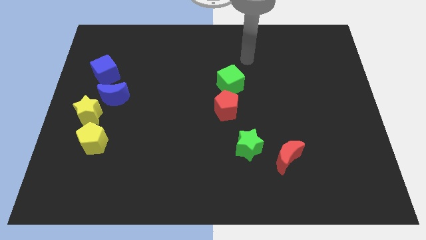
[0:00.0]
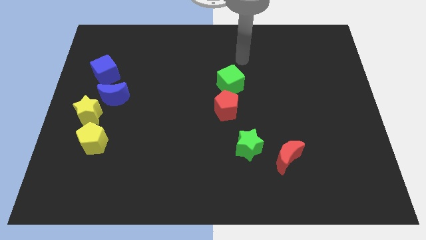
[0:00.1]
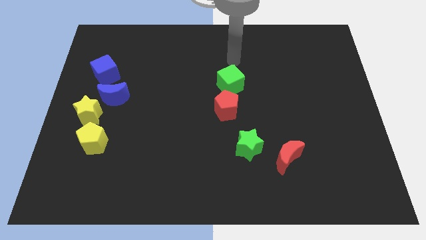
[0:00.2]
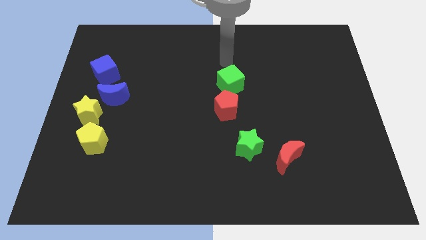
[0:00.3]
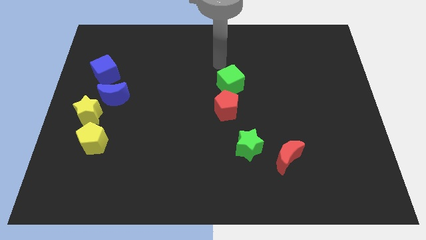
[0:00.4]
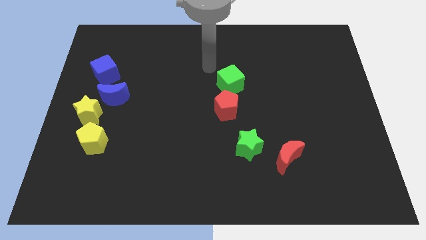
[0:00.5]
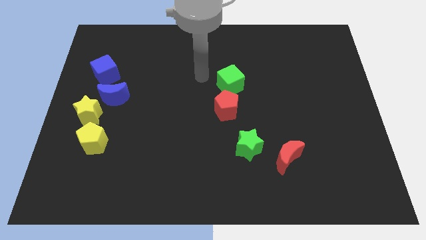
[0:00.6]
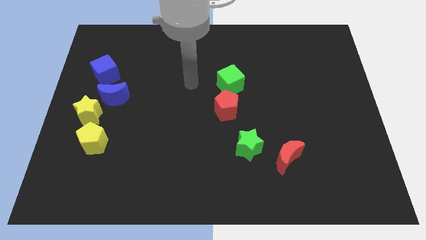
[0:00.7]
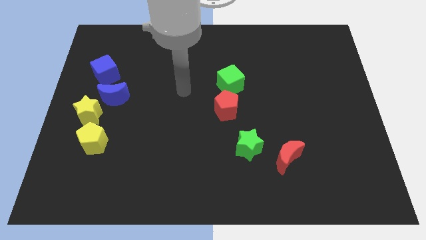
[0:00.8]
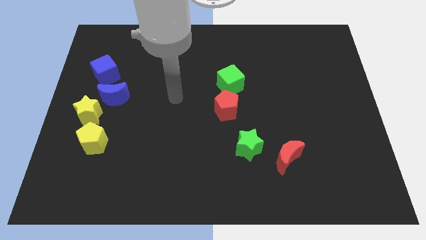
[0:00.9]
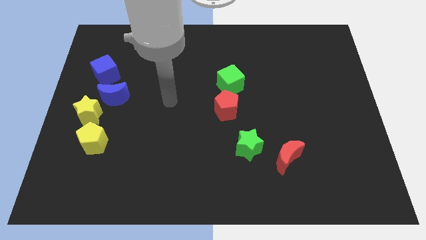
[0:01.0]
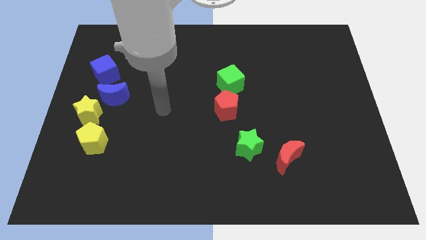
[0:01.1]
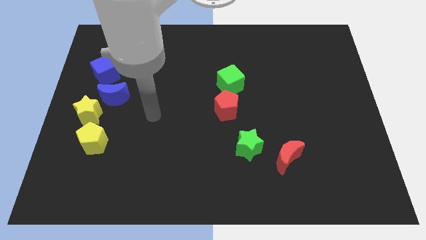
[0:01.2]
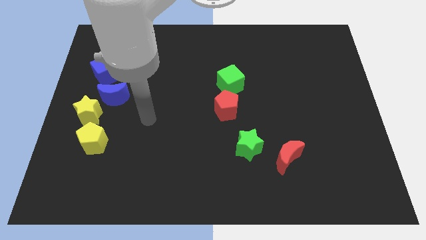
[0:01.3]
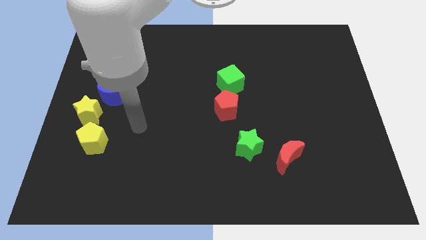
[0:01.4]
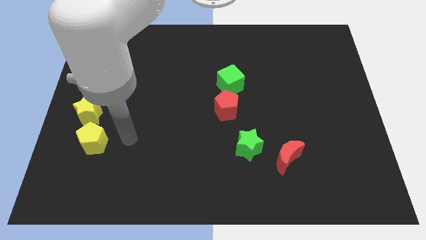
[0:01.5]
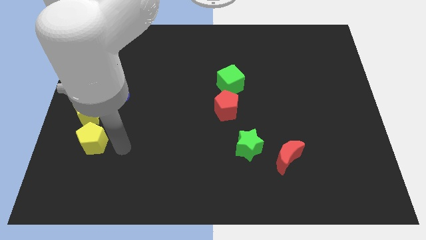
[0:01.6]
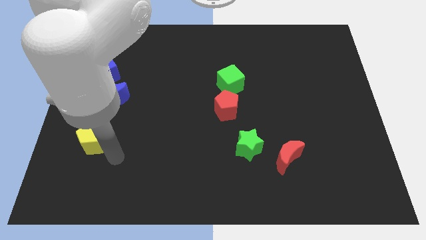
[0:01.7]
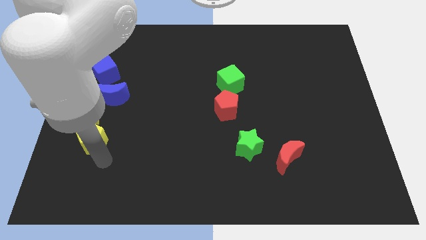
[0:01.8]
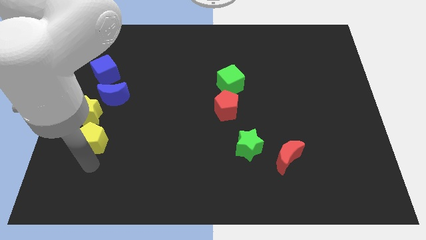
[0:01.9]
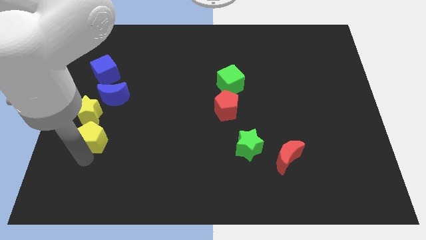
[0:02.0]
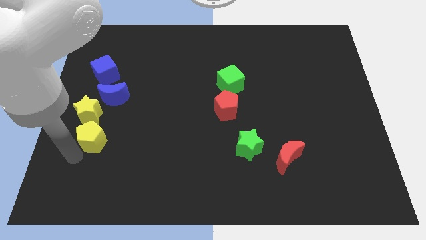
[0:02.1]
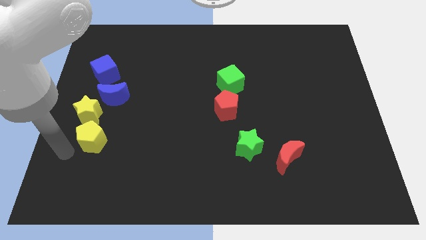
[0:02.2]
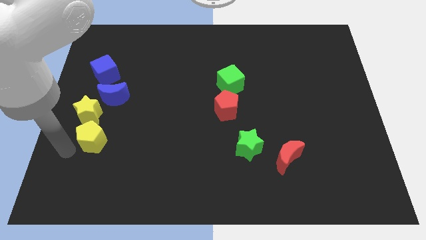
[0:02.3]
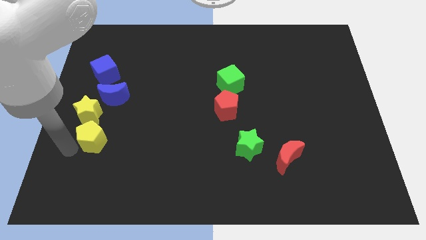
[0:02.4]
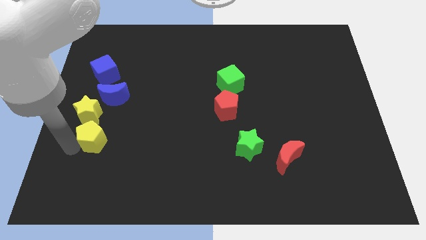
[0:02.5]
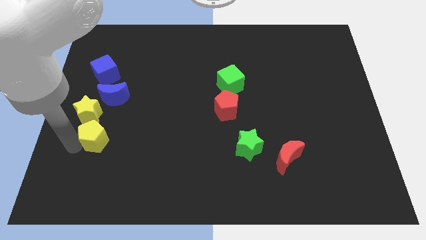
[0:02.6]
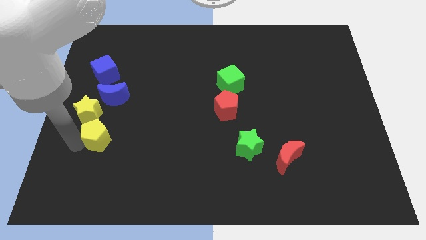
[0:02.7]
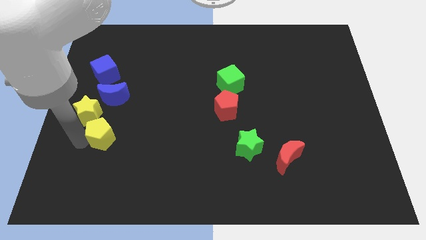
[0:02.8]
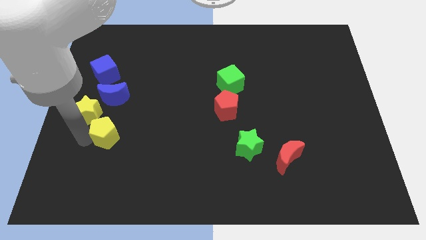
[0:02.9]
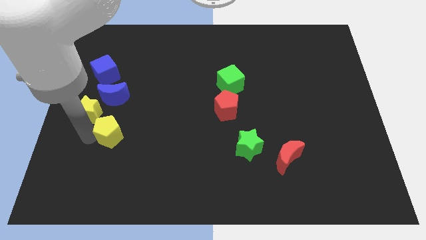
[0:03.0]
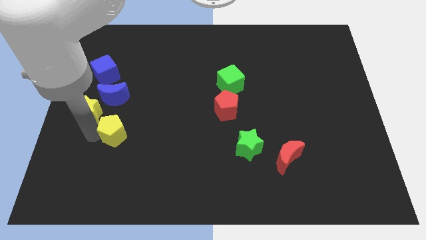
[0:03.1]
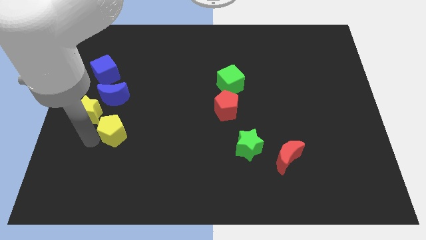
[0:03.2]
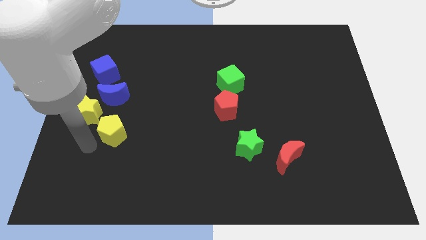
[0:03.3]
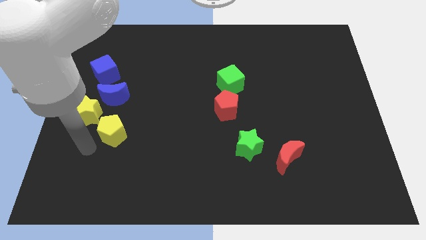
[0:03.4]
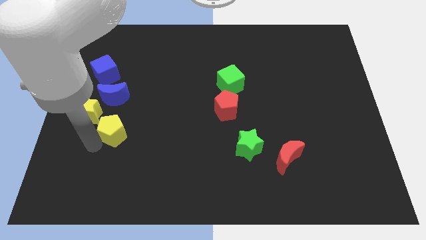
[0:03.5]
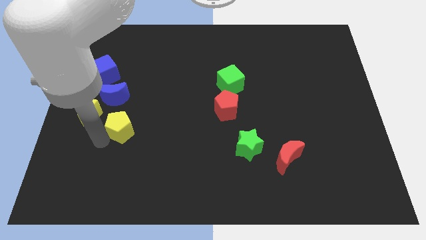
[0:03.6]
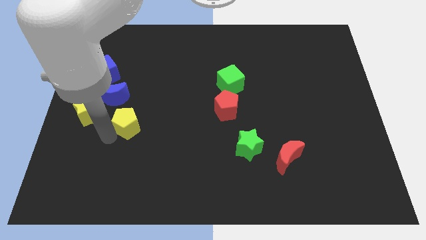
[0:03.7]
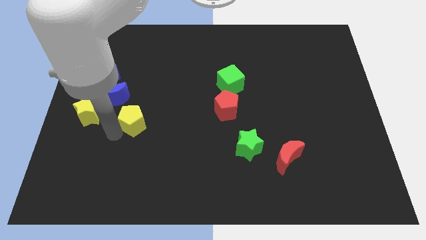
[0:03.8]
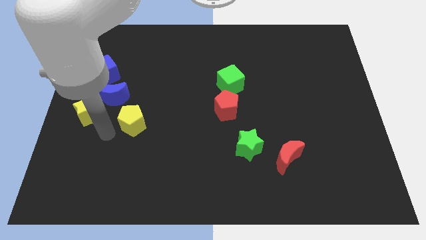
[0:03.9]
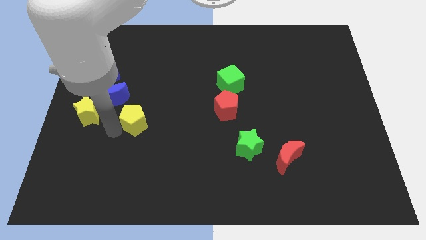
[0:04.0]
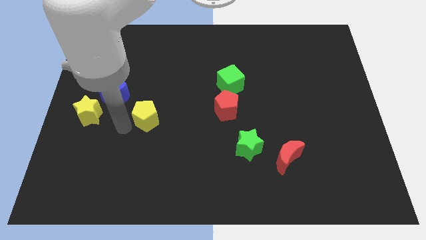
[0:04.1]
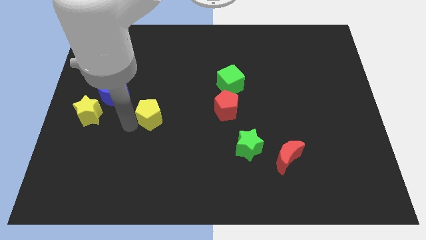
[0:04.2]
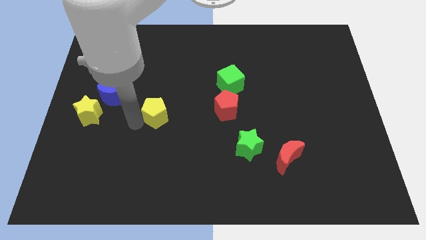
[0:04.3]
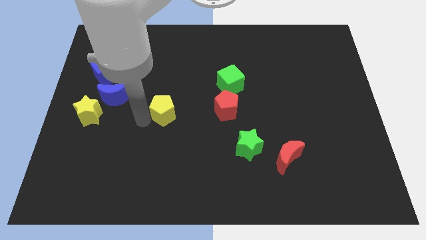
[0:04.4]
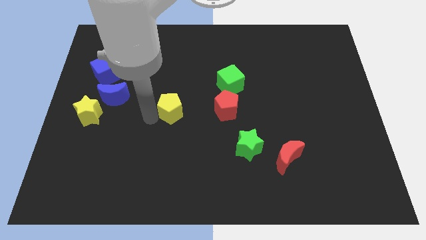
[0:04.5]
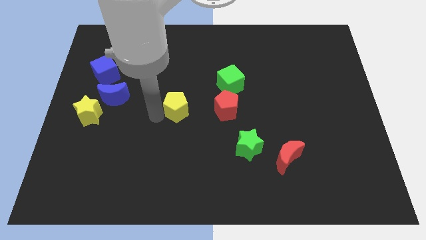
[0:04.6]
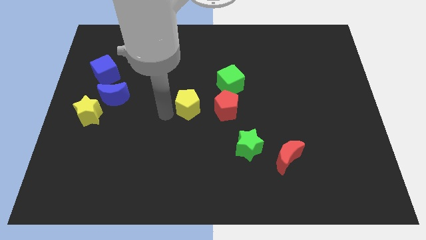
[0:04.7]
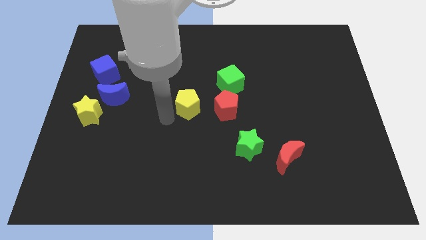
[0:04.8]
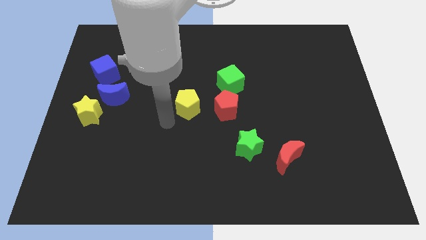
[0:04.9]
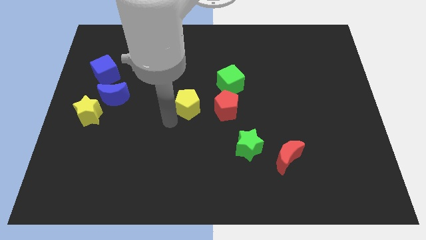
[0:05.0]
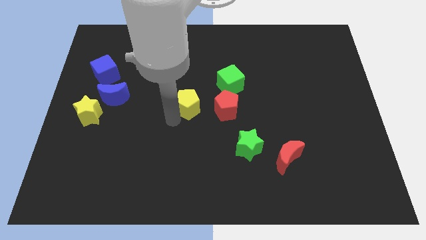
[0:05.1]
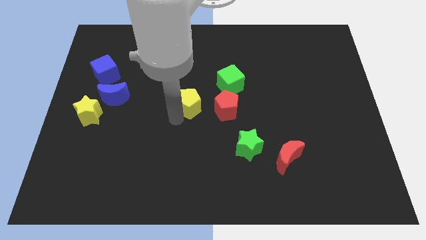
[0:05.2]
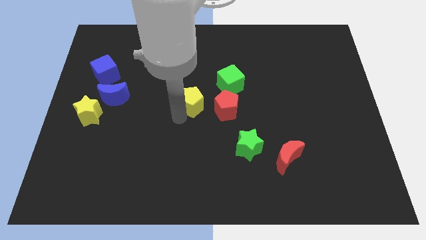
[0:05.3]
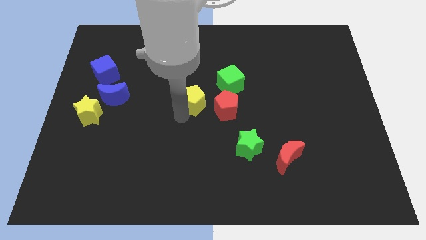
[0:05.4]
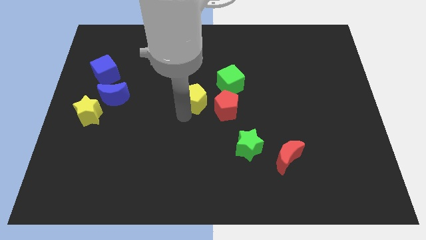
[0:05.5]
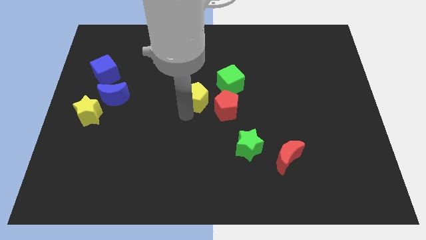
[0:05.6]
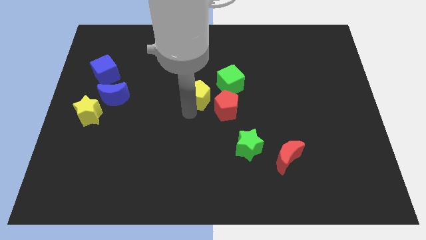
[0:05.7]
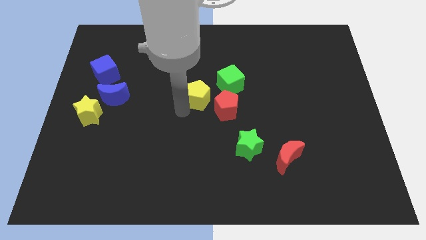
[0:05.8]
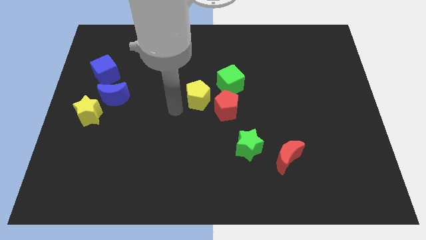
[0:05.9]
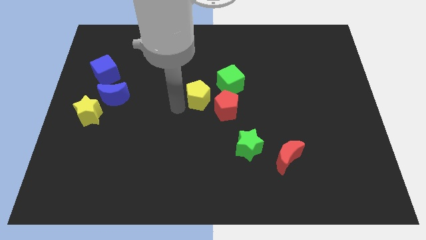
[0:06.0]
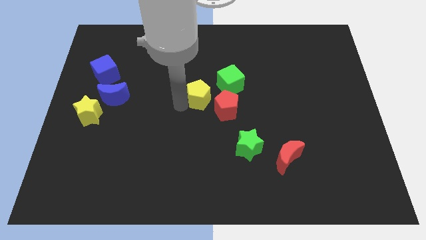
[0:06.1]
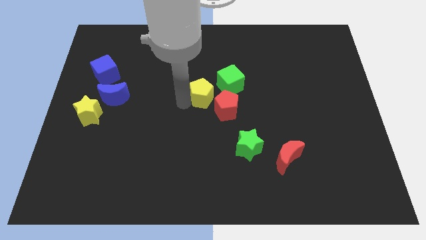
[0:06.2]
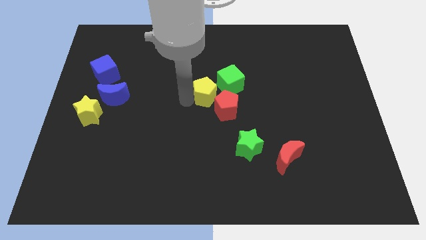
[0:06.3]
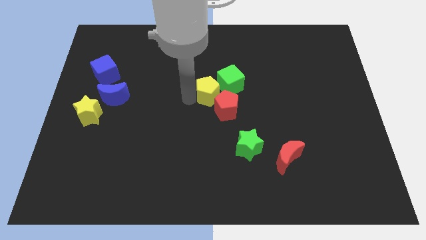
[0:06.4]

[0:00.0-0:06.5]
move the yellow pentagon to the green cube

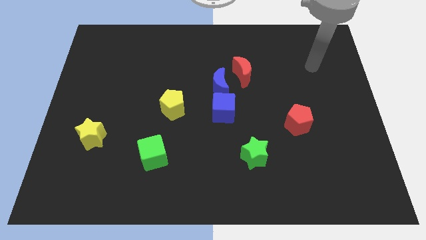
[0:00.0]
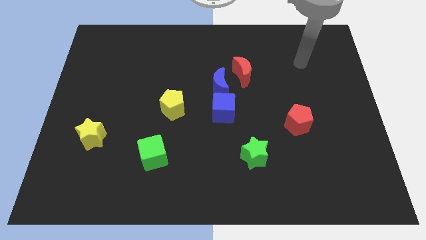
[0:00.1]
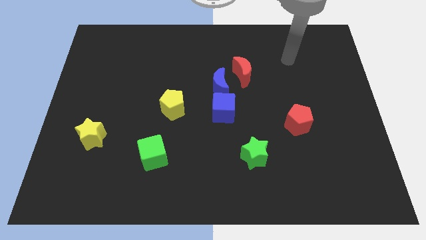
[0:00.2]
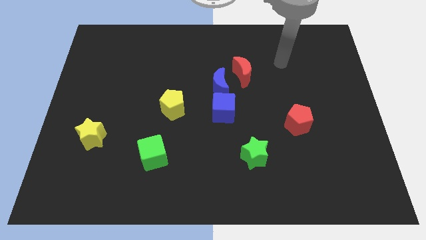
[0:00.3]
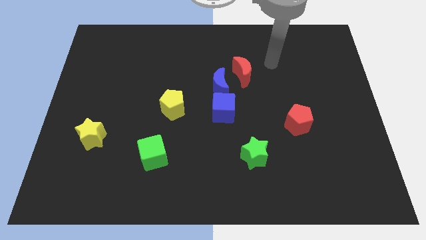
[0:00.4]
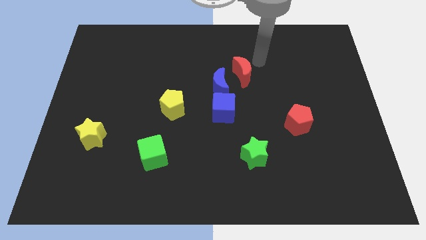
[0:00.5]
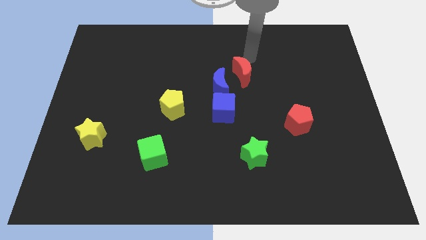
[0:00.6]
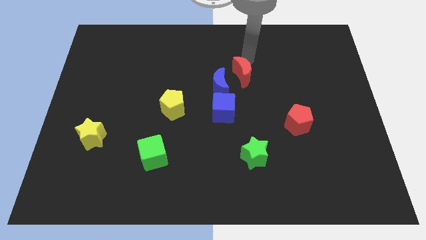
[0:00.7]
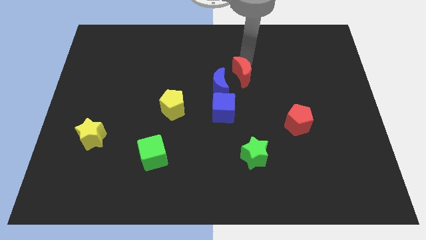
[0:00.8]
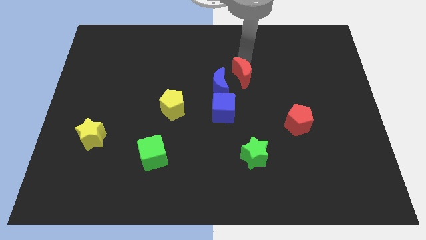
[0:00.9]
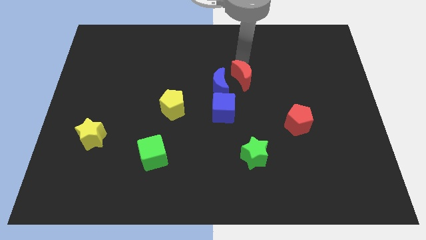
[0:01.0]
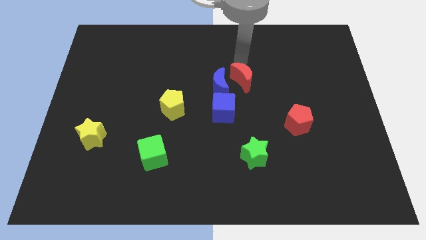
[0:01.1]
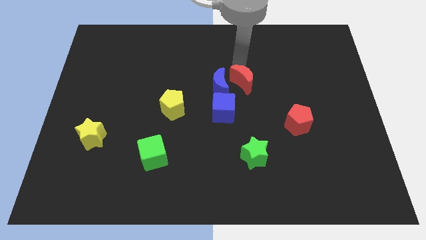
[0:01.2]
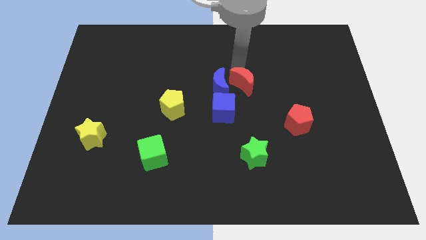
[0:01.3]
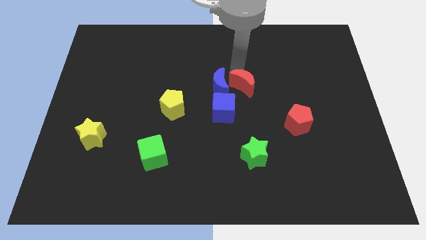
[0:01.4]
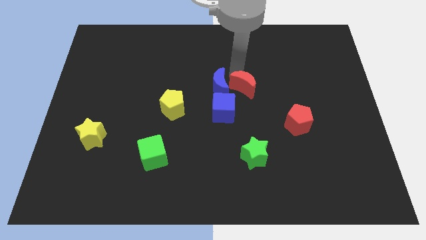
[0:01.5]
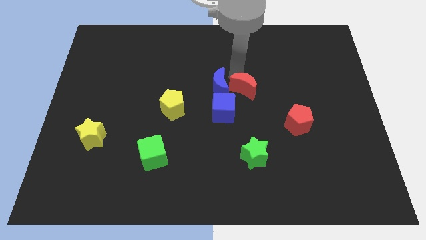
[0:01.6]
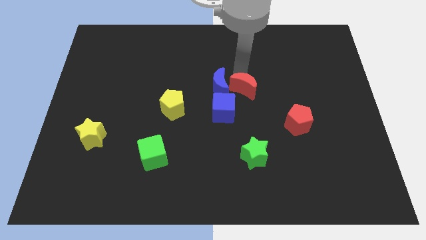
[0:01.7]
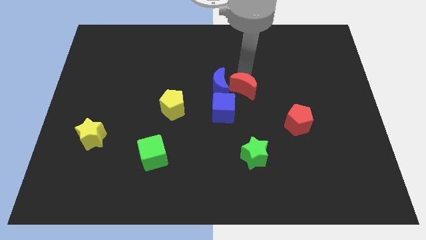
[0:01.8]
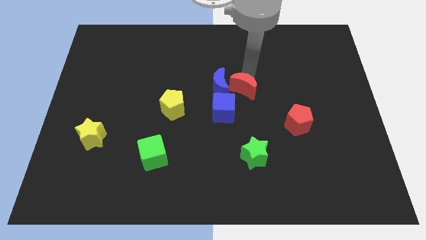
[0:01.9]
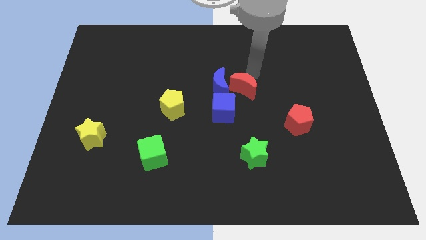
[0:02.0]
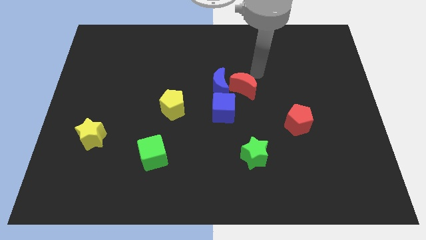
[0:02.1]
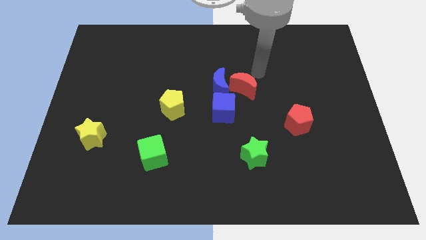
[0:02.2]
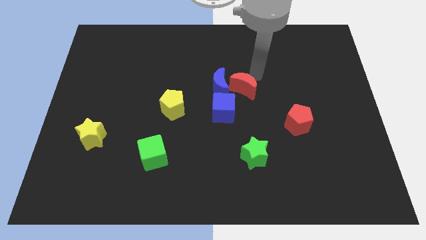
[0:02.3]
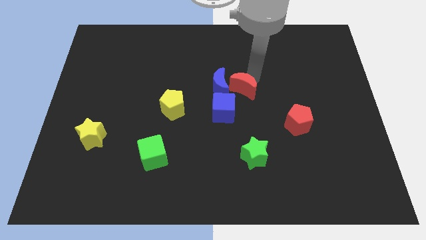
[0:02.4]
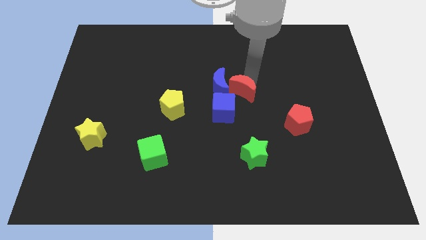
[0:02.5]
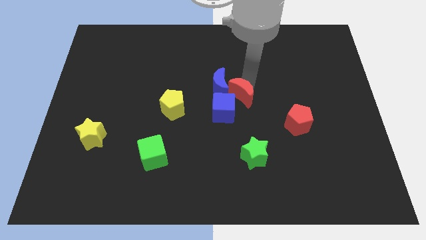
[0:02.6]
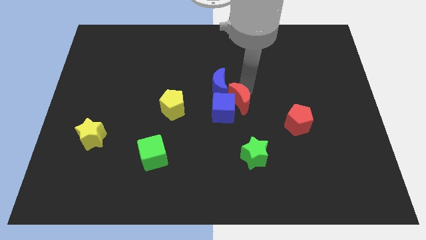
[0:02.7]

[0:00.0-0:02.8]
slide the red moon close to the blue cube
